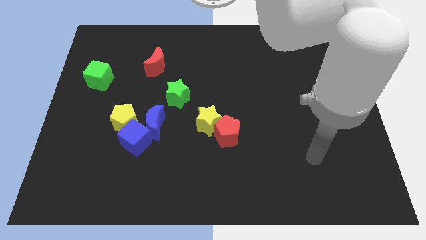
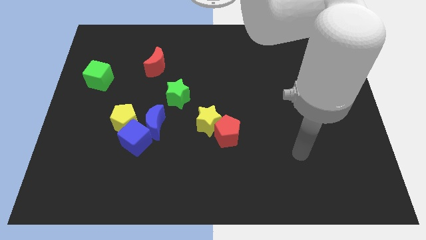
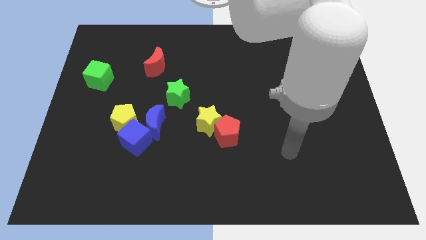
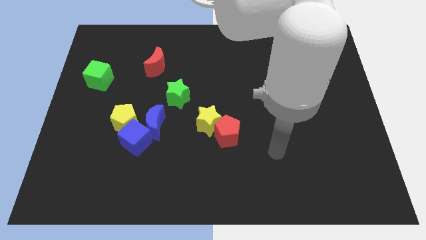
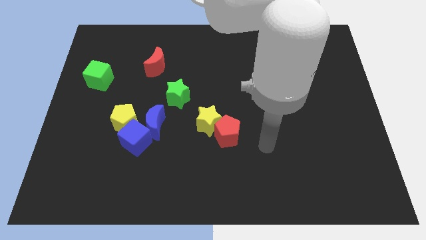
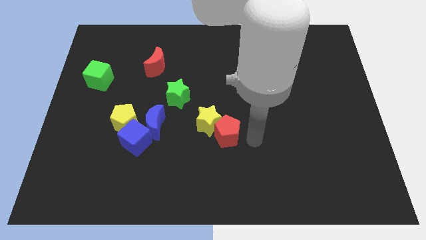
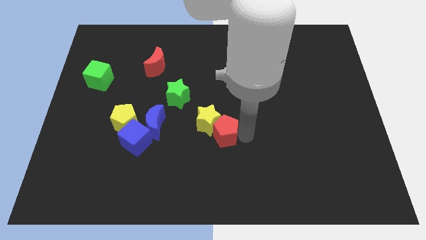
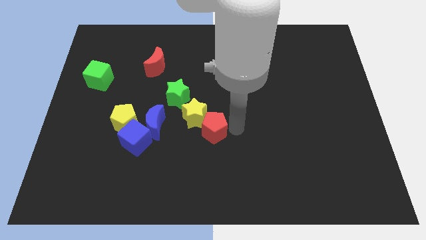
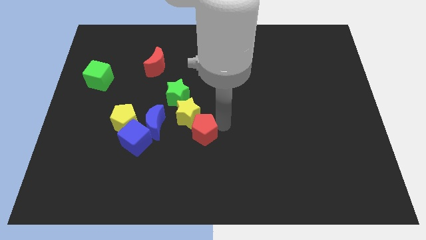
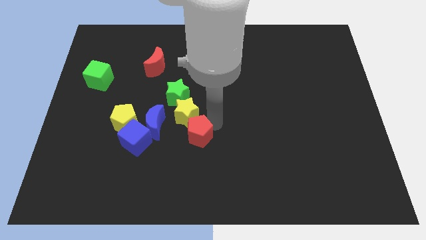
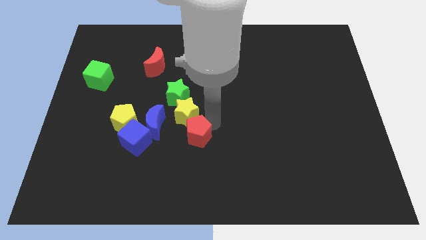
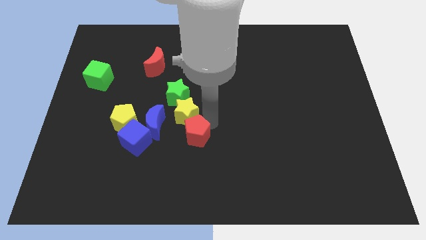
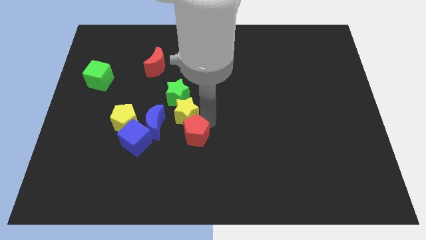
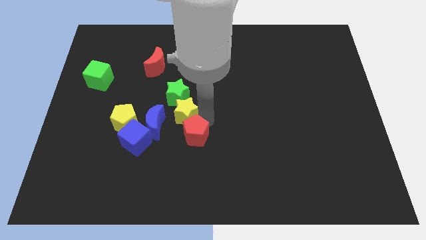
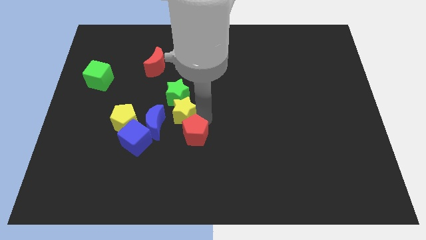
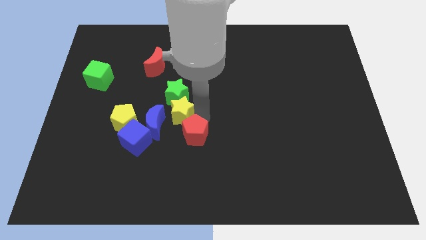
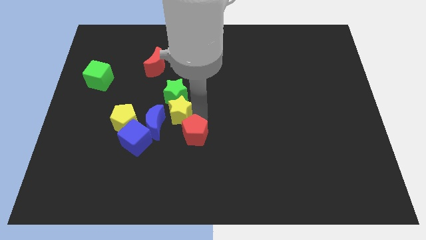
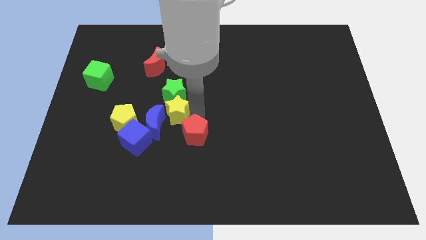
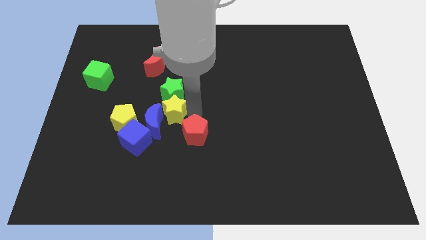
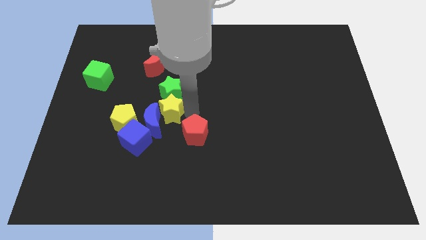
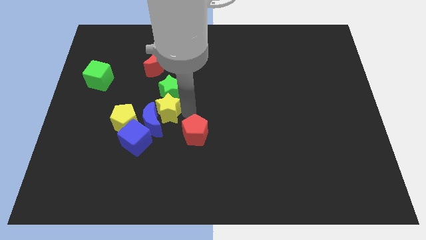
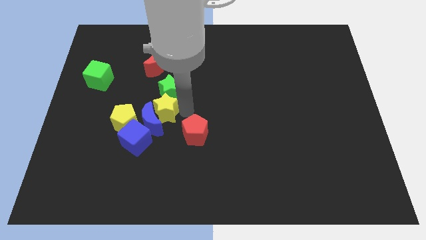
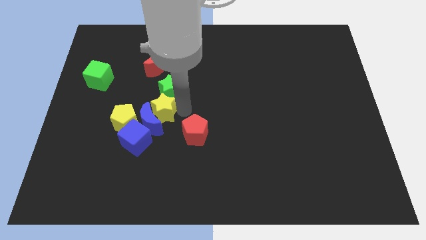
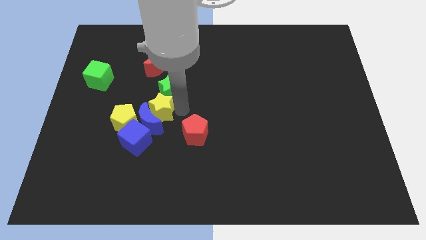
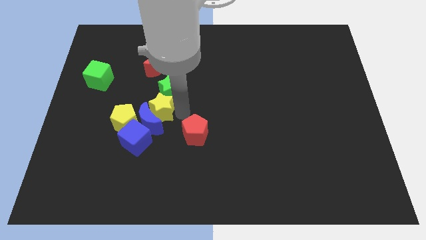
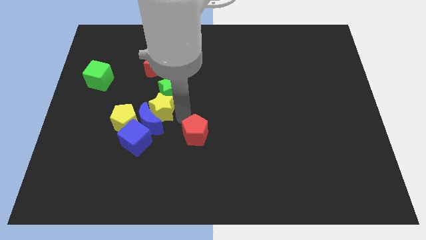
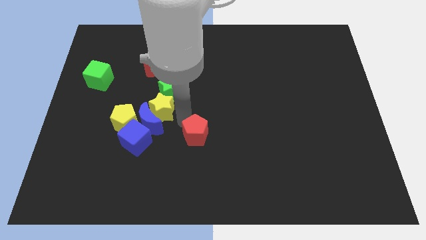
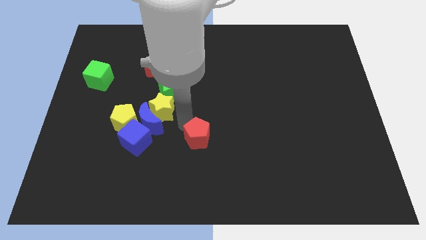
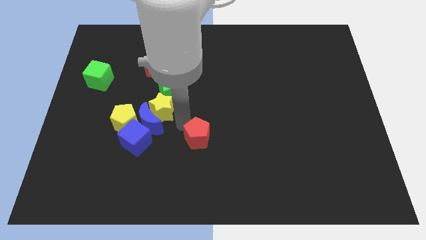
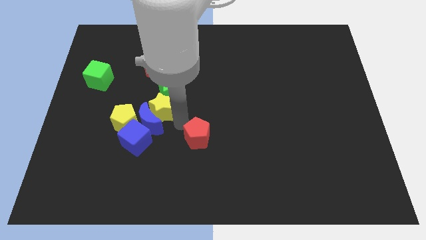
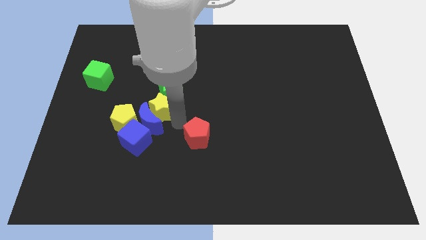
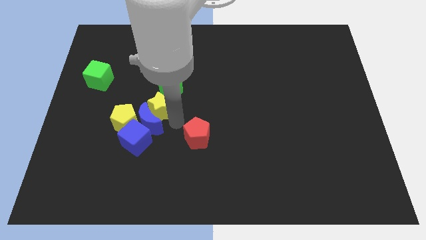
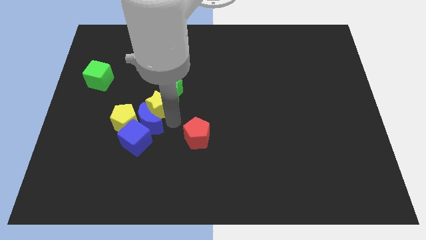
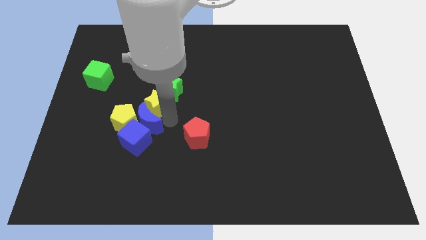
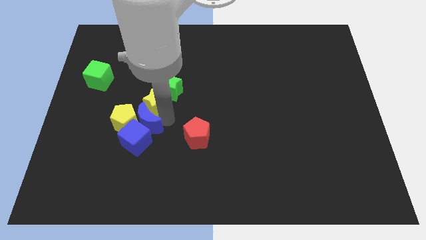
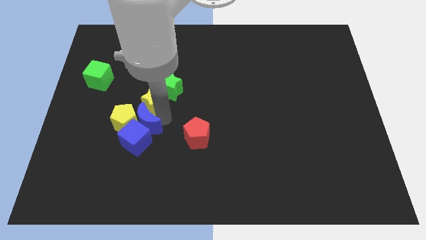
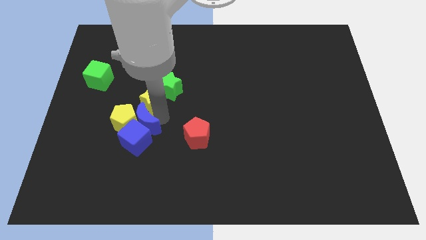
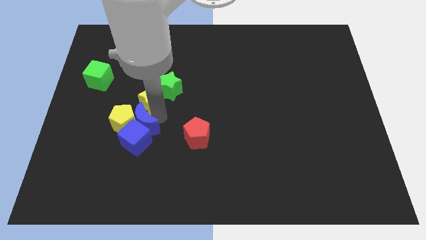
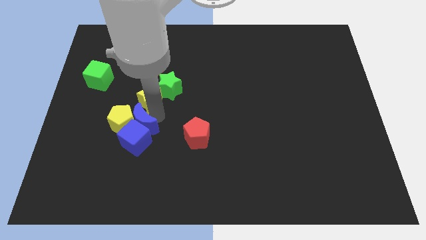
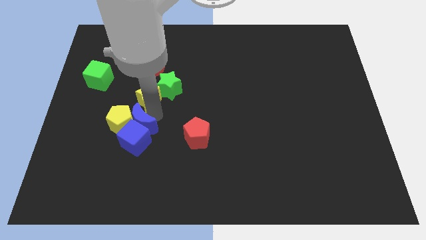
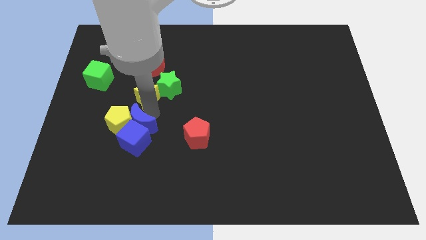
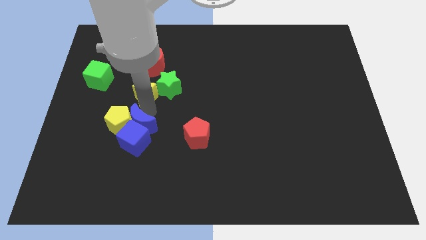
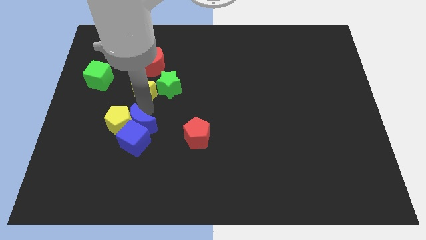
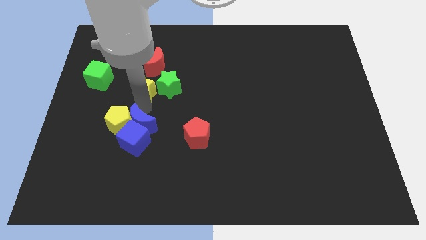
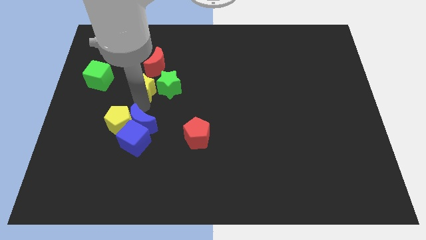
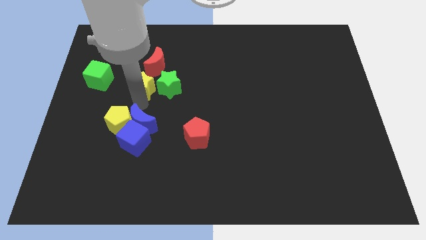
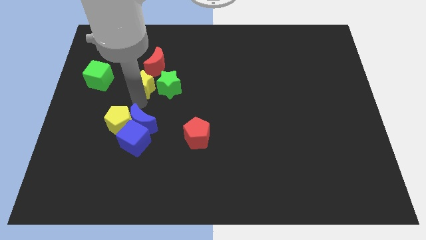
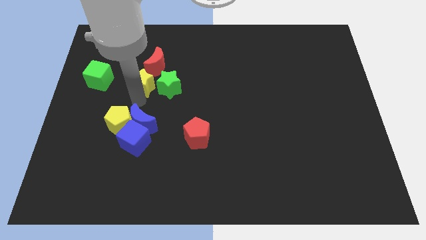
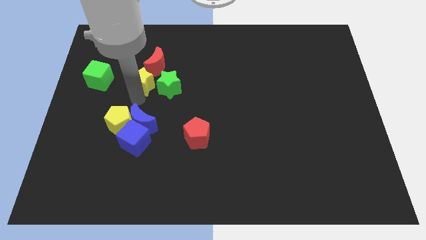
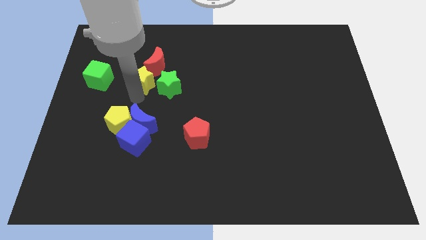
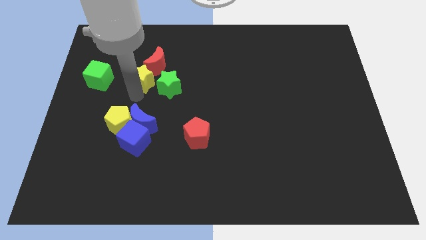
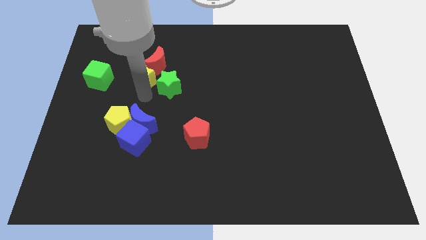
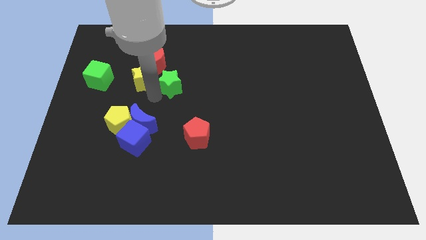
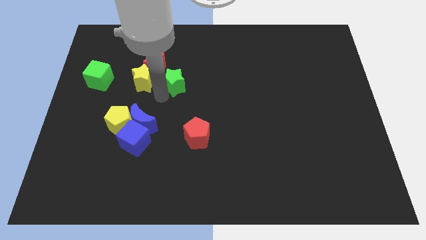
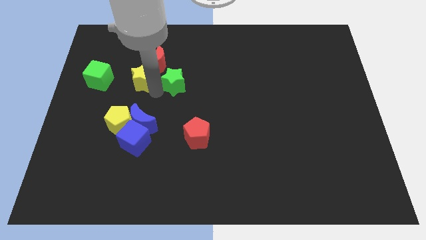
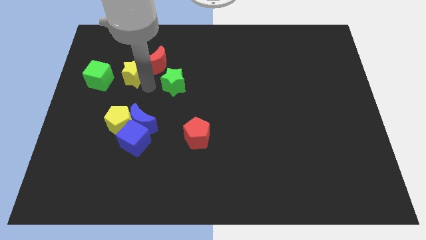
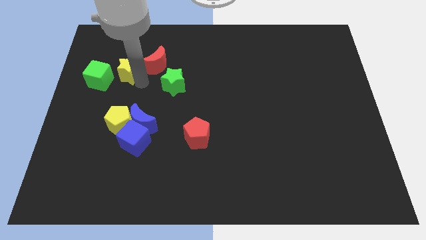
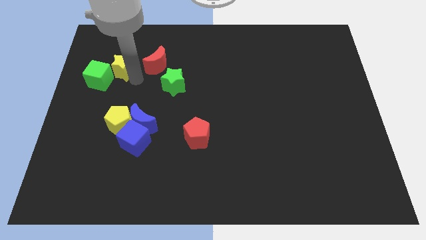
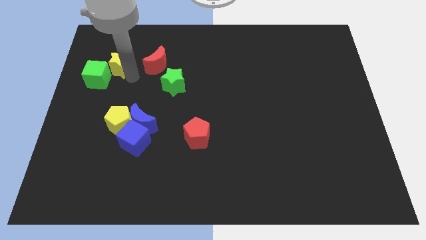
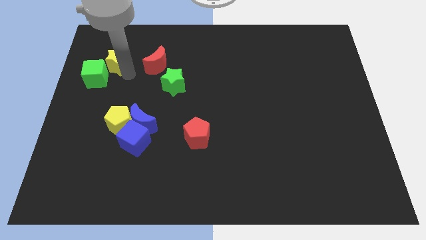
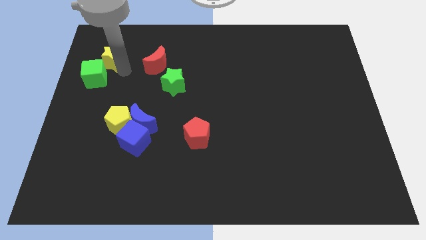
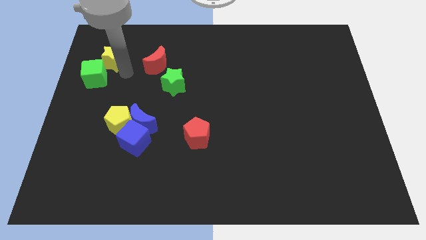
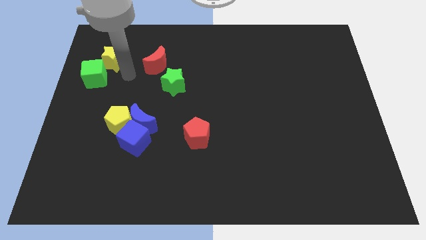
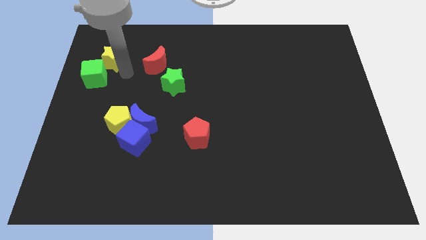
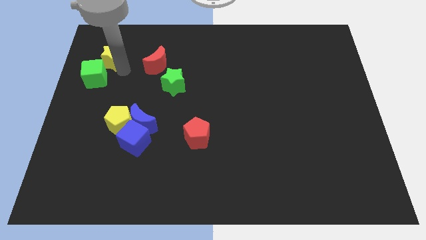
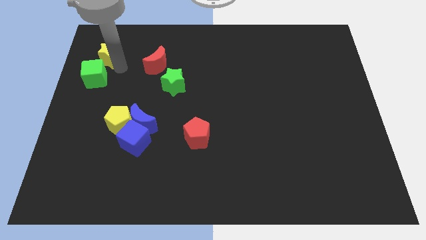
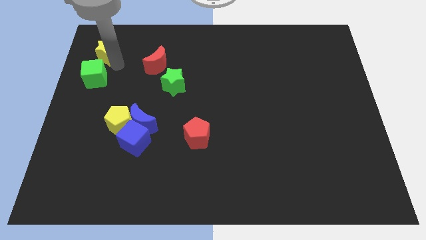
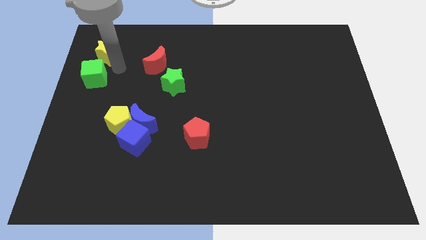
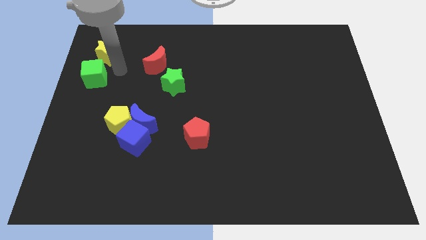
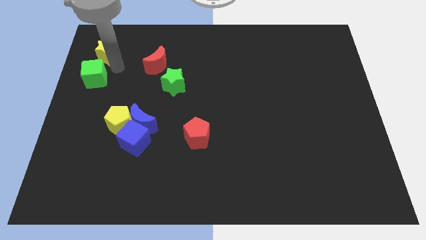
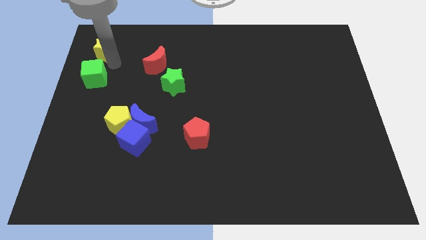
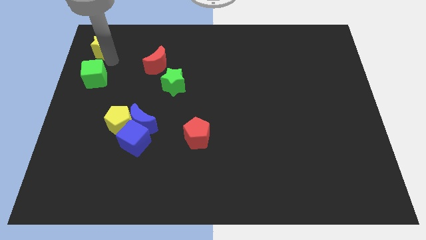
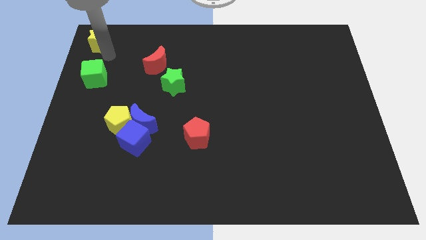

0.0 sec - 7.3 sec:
move the yellow star to the top left
